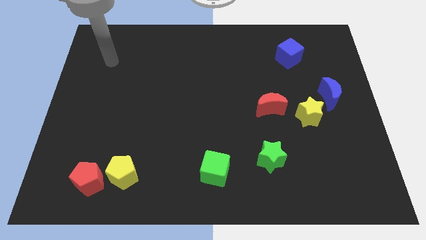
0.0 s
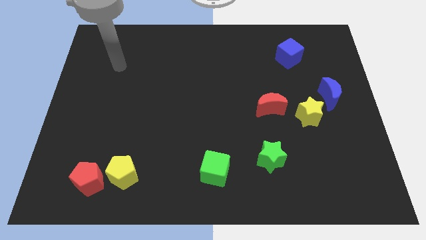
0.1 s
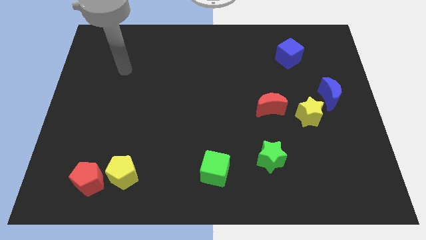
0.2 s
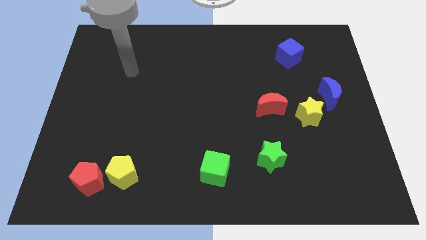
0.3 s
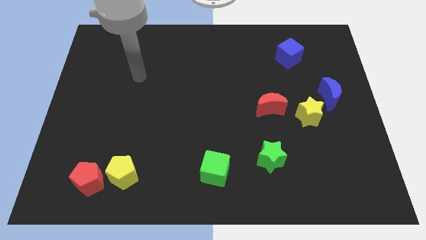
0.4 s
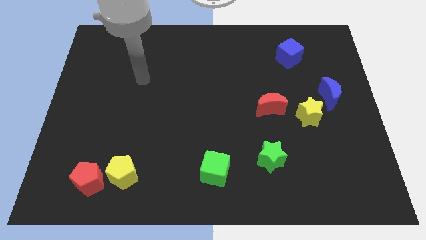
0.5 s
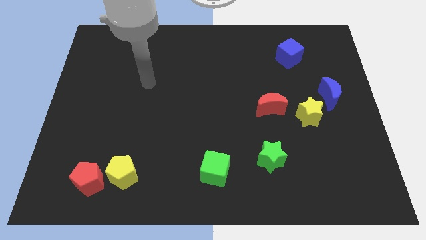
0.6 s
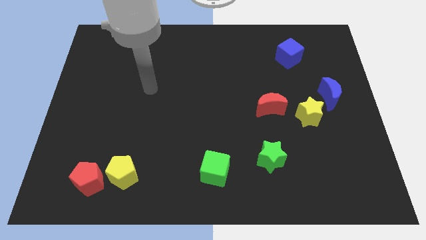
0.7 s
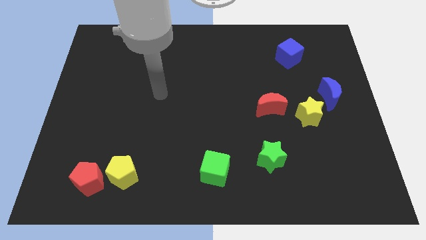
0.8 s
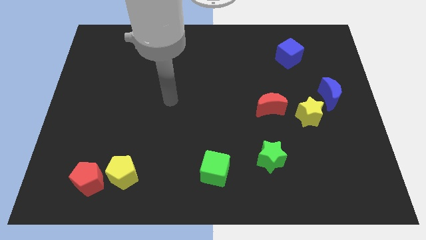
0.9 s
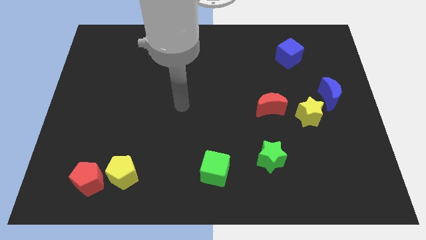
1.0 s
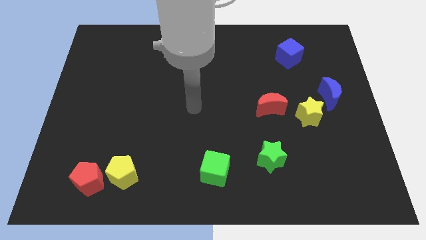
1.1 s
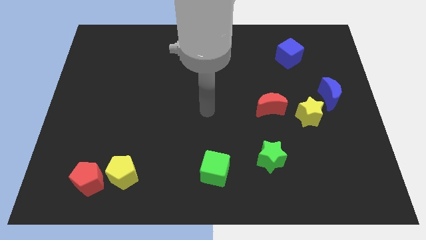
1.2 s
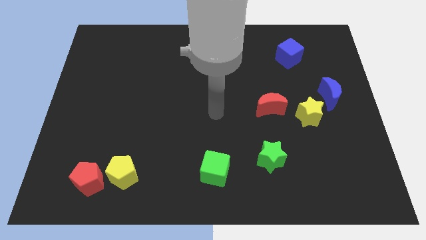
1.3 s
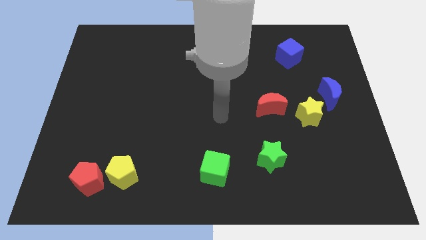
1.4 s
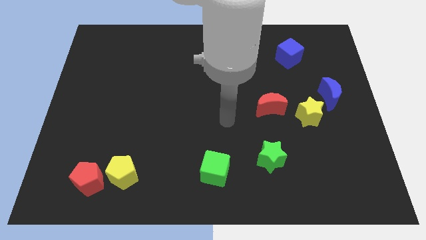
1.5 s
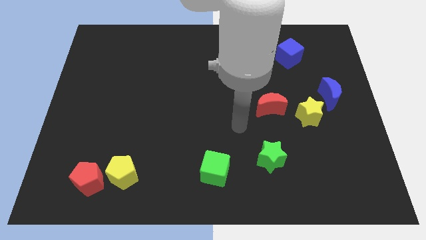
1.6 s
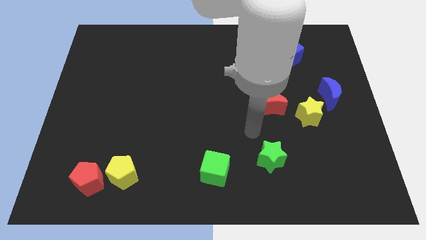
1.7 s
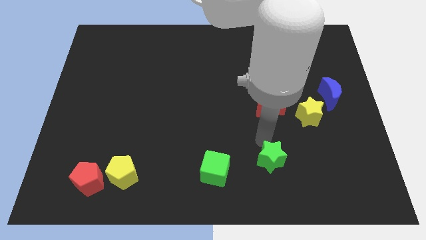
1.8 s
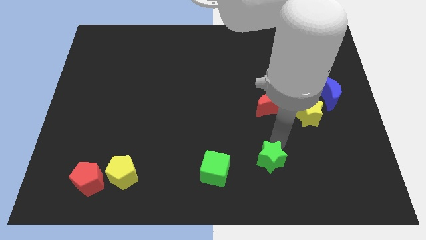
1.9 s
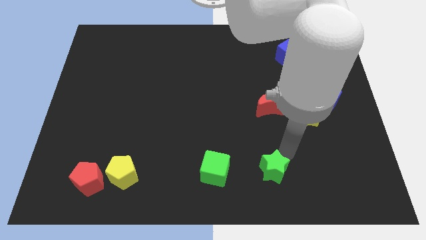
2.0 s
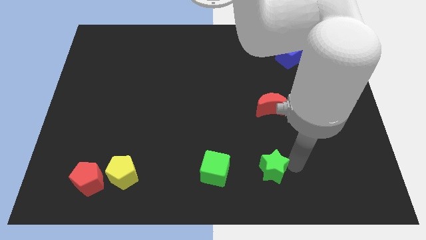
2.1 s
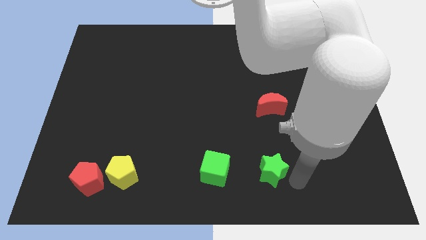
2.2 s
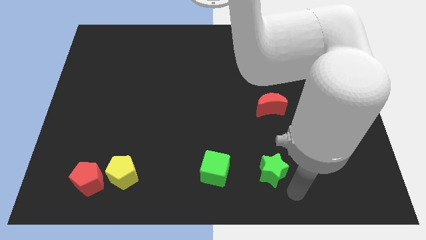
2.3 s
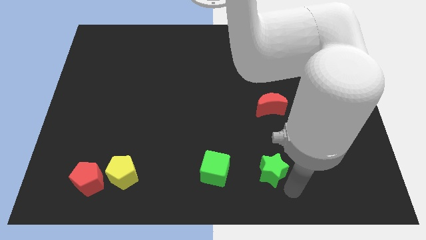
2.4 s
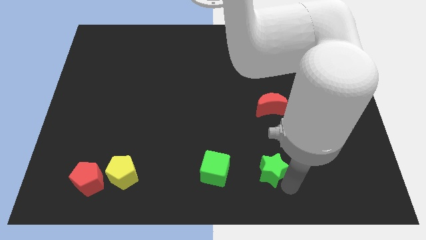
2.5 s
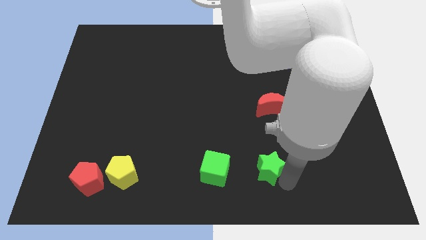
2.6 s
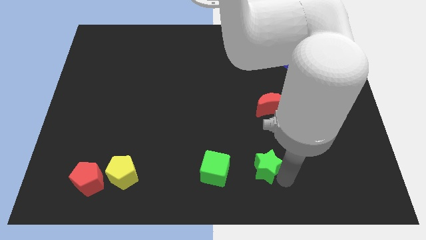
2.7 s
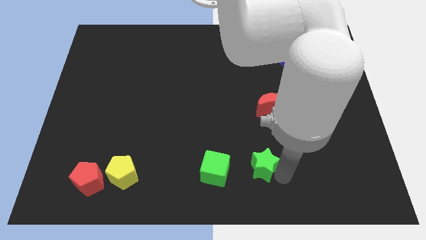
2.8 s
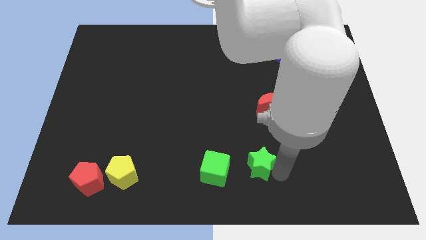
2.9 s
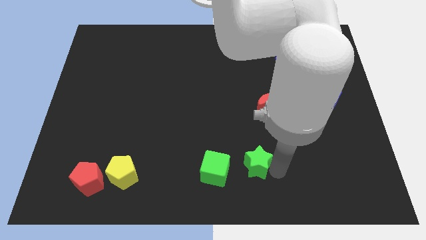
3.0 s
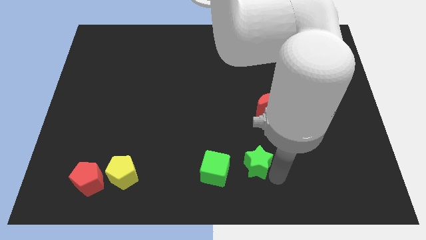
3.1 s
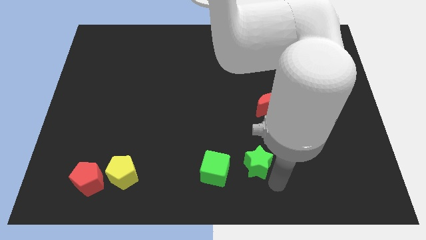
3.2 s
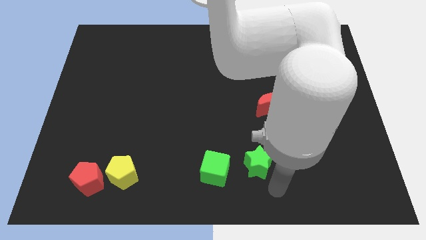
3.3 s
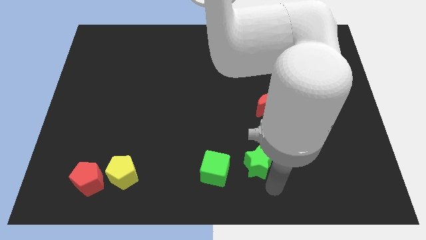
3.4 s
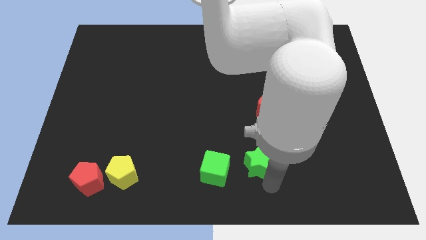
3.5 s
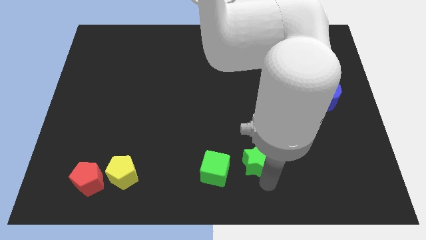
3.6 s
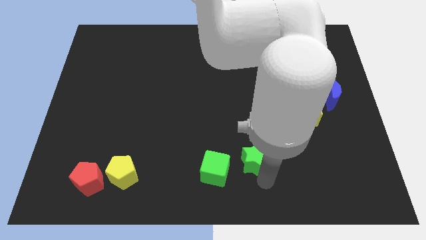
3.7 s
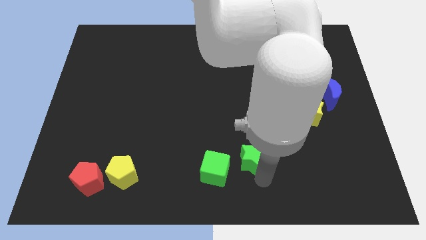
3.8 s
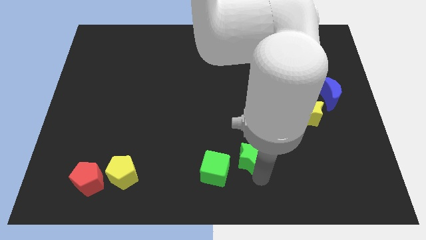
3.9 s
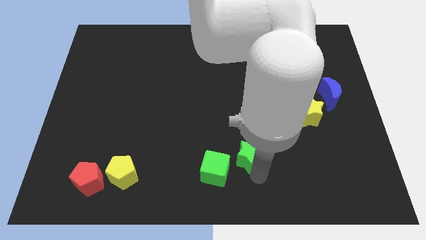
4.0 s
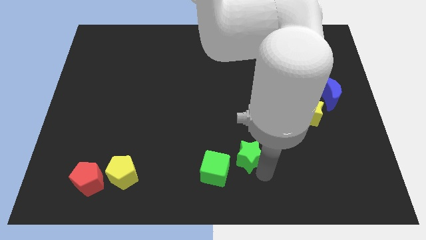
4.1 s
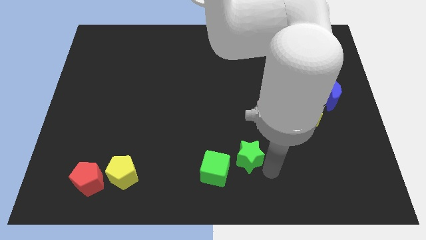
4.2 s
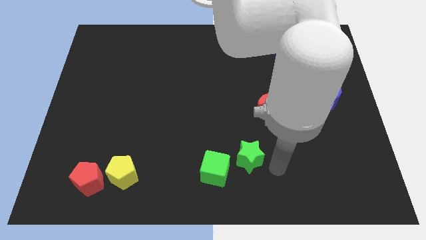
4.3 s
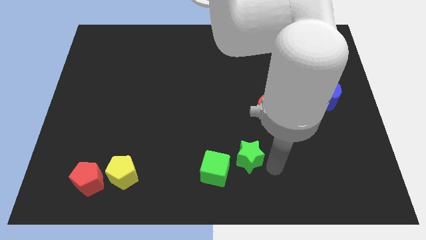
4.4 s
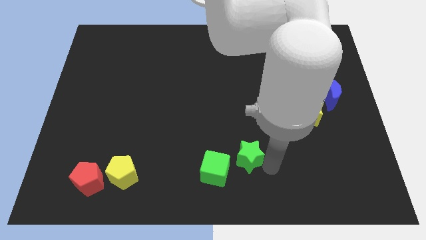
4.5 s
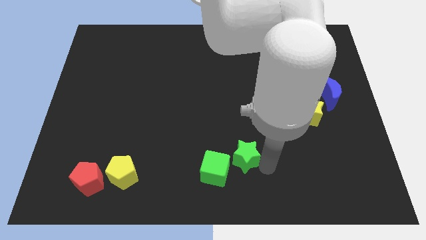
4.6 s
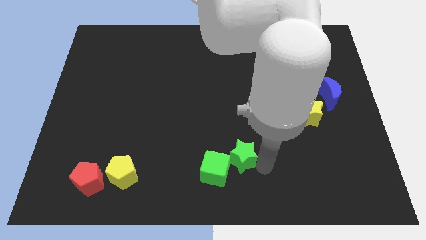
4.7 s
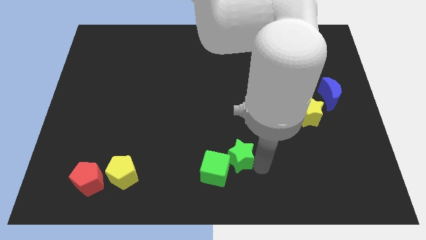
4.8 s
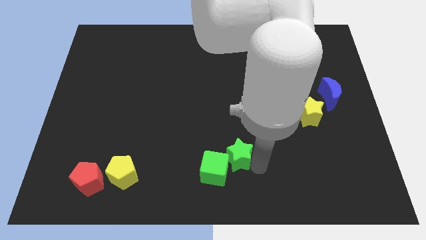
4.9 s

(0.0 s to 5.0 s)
move the green star a little to the left

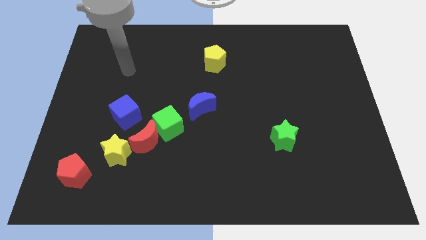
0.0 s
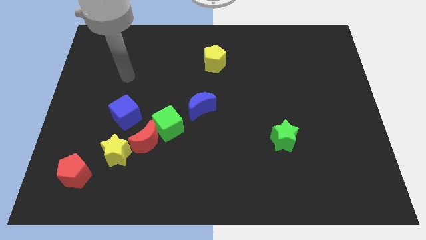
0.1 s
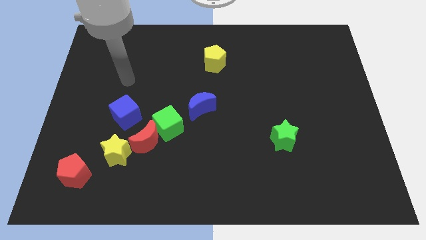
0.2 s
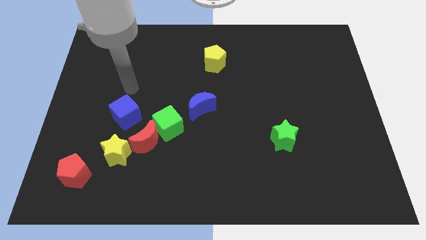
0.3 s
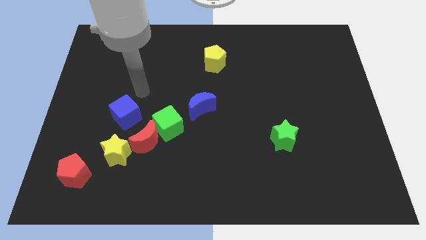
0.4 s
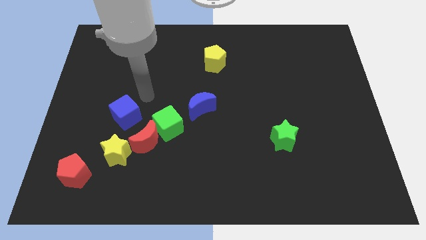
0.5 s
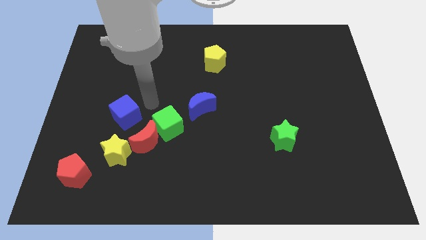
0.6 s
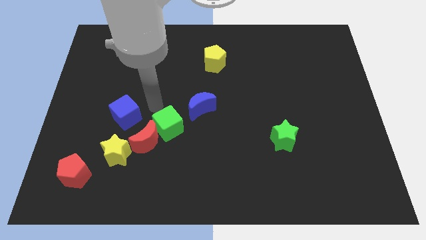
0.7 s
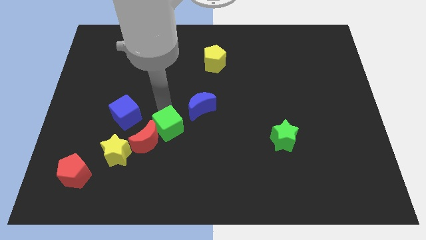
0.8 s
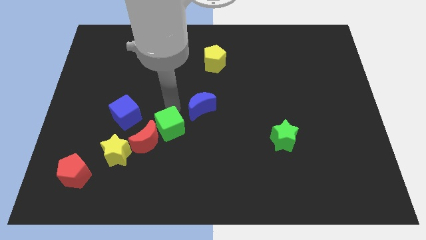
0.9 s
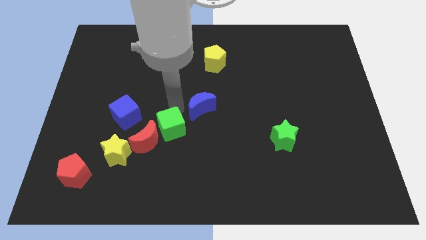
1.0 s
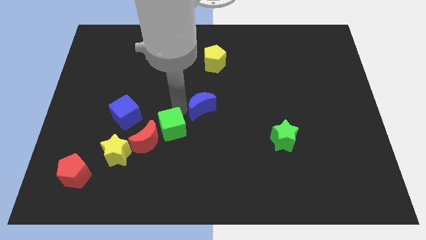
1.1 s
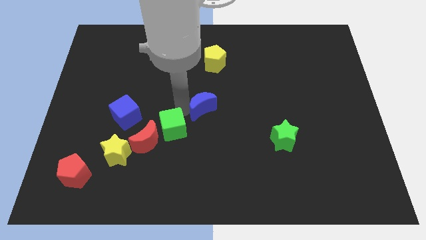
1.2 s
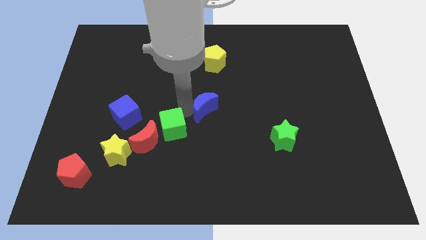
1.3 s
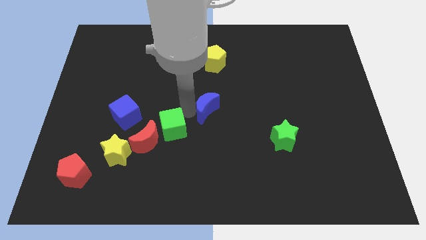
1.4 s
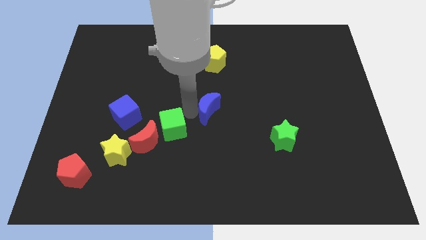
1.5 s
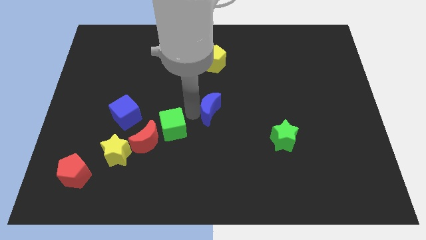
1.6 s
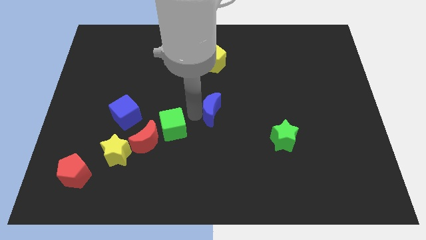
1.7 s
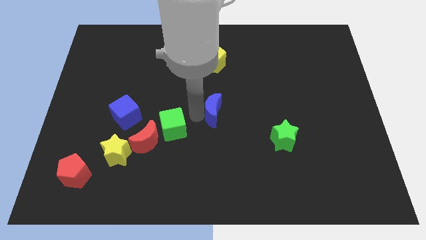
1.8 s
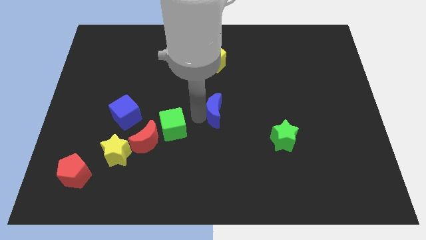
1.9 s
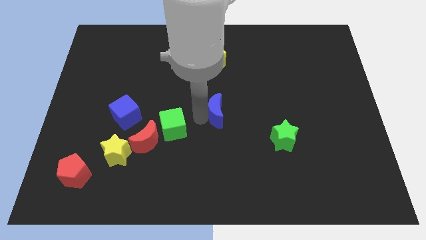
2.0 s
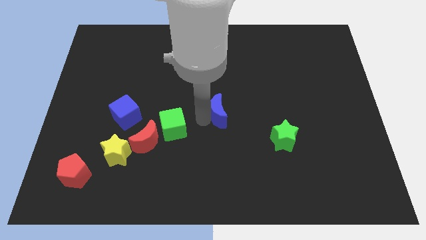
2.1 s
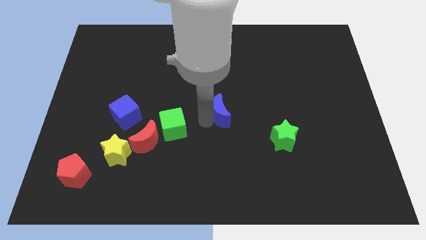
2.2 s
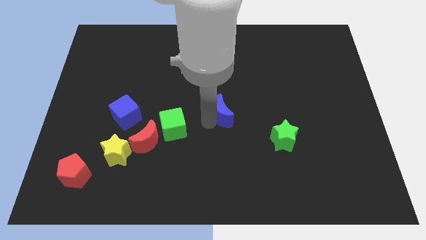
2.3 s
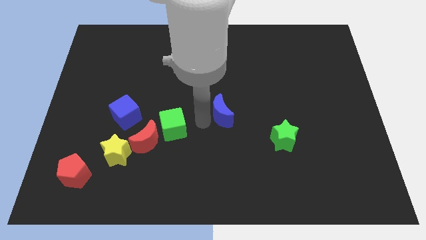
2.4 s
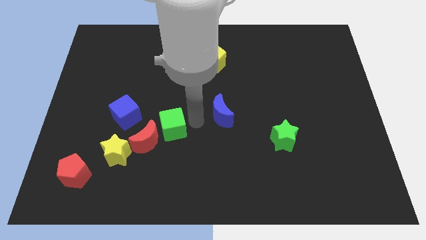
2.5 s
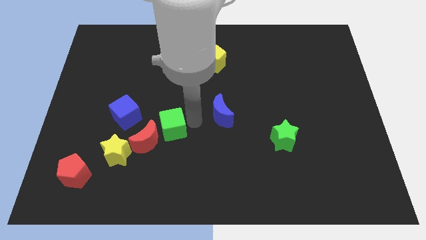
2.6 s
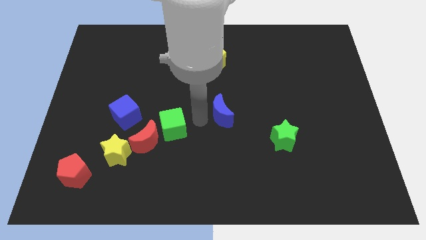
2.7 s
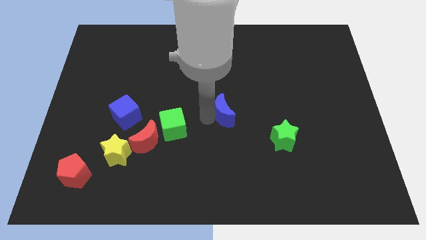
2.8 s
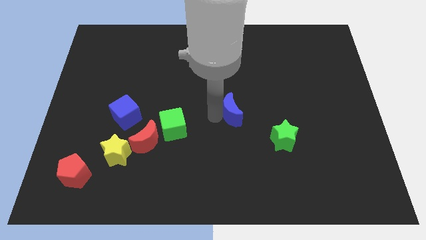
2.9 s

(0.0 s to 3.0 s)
move the blue moon to the right a little bit

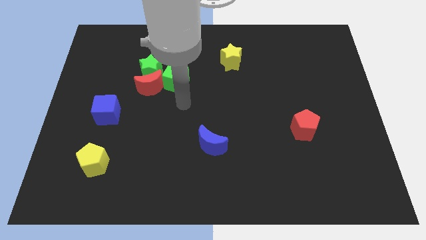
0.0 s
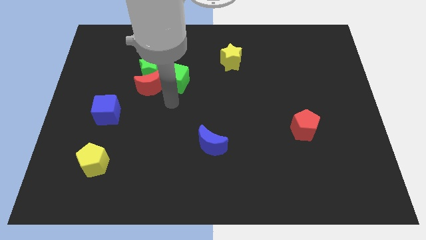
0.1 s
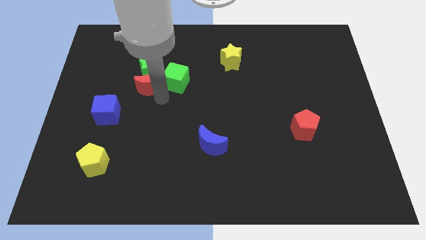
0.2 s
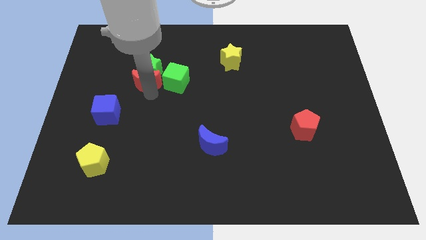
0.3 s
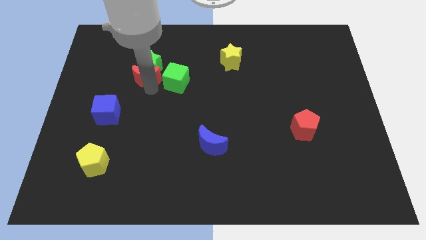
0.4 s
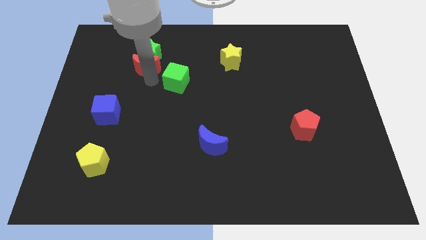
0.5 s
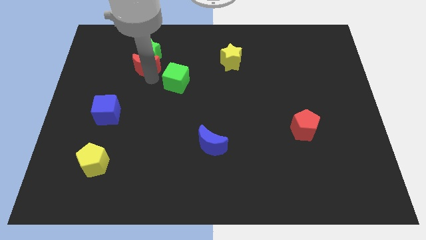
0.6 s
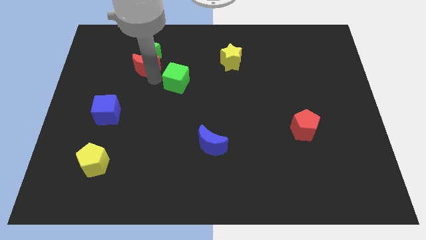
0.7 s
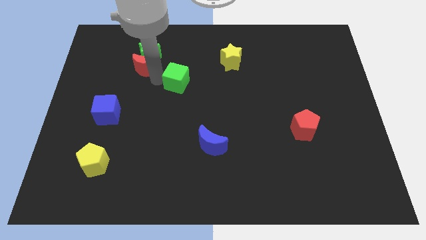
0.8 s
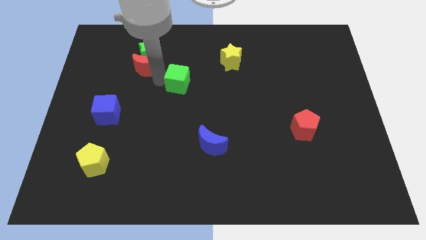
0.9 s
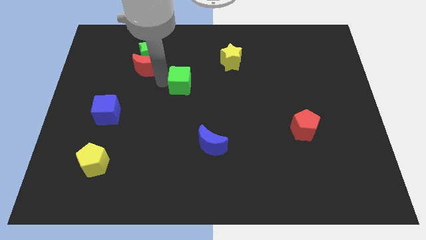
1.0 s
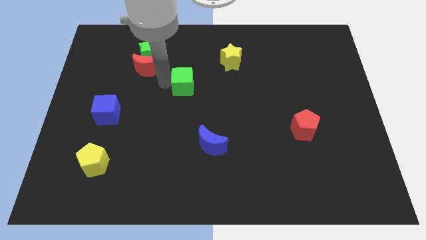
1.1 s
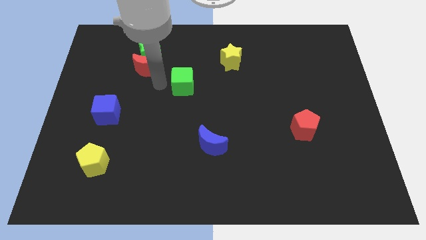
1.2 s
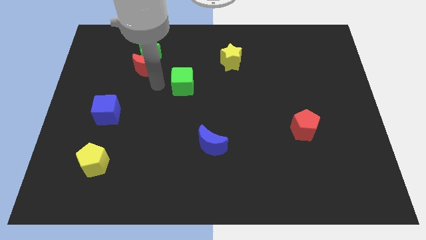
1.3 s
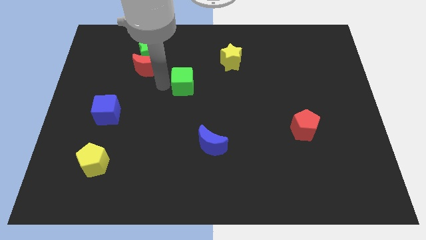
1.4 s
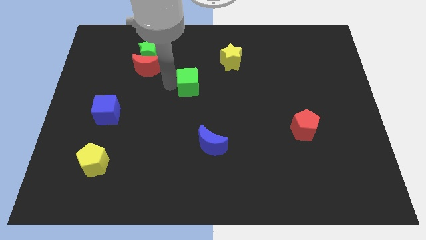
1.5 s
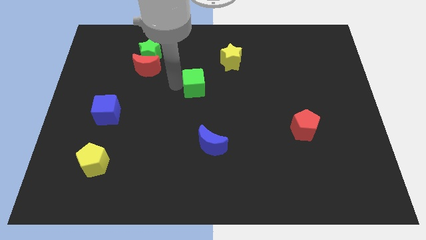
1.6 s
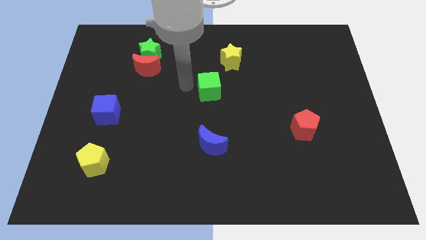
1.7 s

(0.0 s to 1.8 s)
slide the green cube to the right slightly
